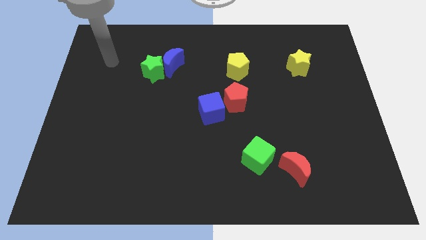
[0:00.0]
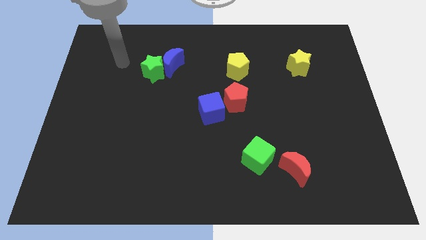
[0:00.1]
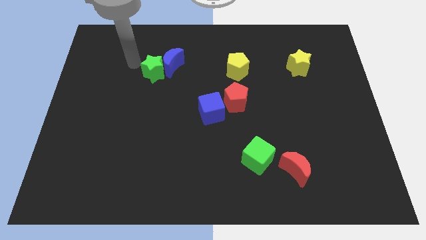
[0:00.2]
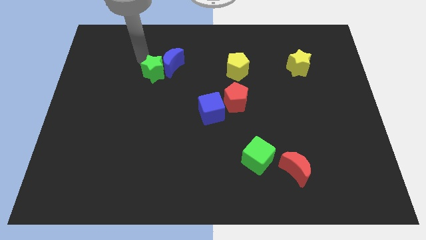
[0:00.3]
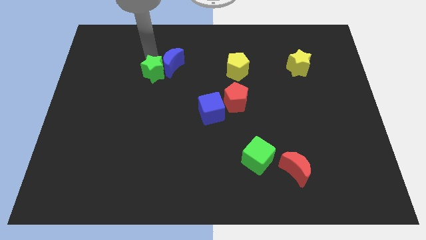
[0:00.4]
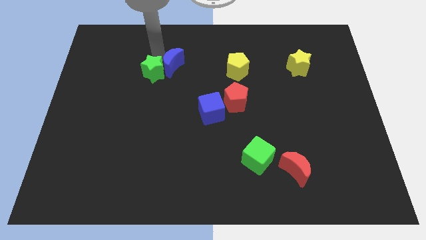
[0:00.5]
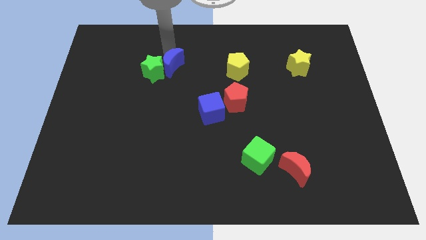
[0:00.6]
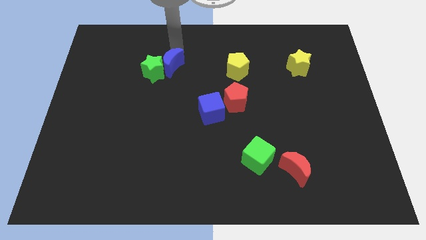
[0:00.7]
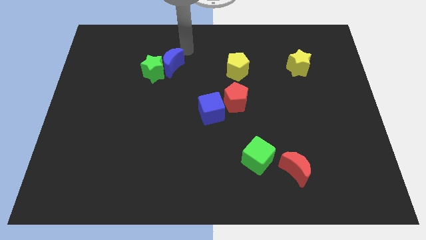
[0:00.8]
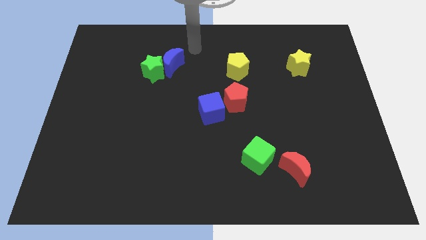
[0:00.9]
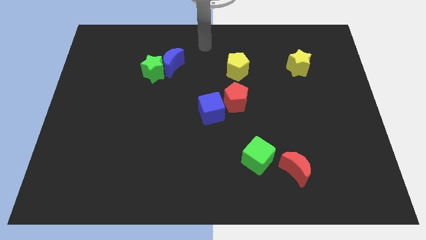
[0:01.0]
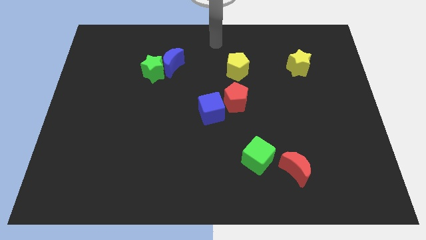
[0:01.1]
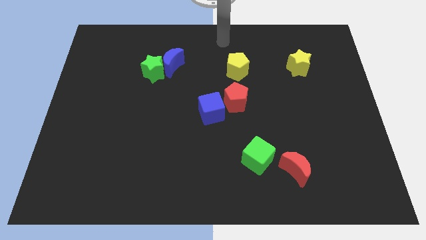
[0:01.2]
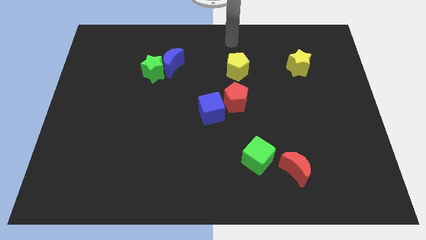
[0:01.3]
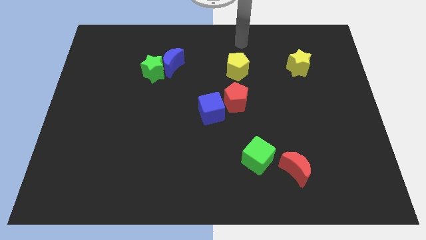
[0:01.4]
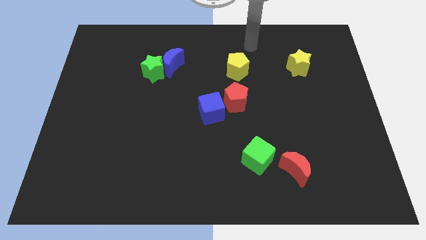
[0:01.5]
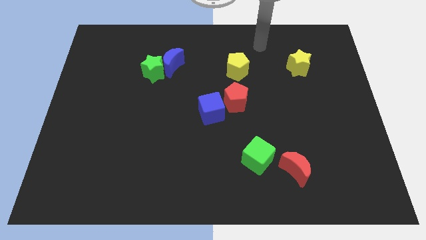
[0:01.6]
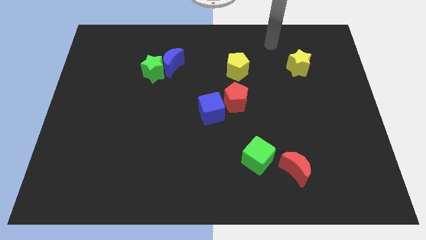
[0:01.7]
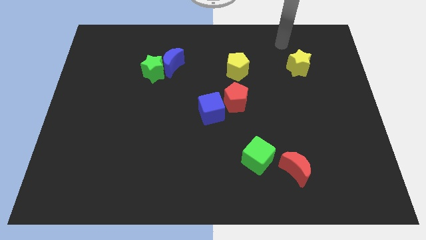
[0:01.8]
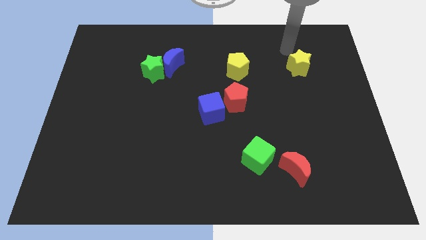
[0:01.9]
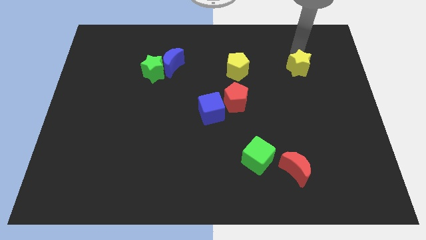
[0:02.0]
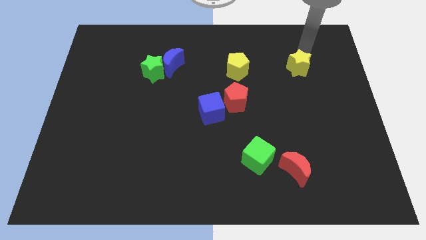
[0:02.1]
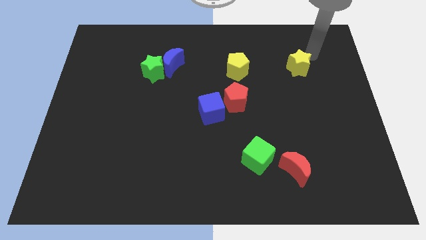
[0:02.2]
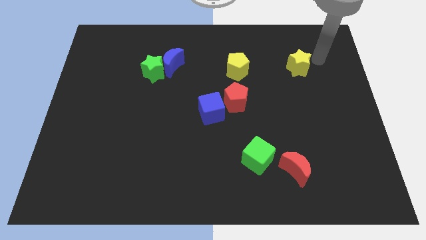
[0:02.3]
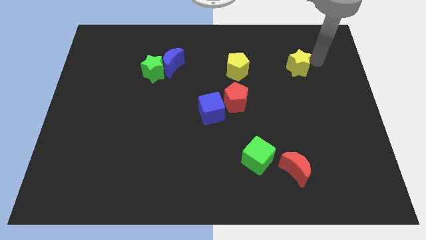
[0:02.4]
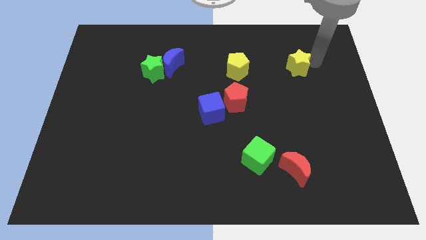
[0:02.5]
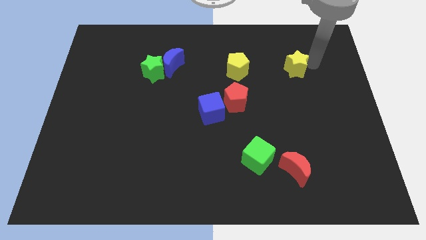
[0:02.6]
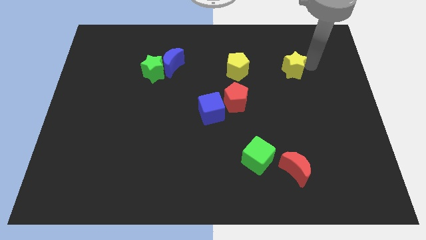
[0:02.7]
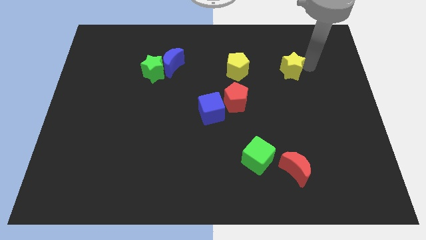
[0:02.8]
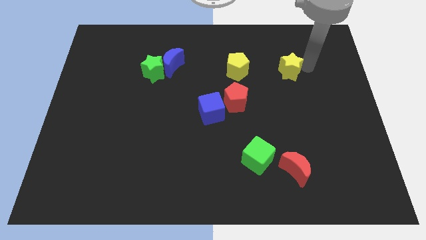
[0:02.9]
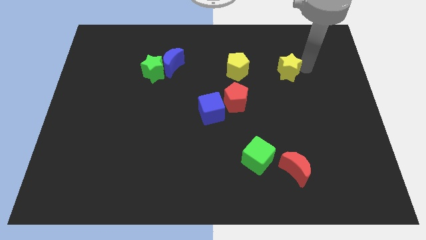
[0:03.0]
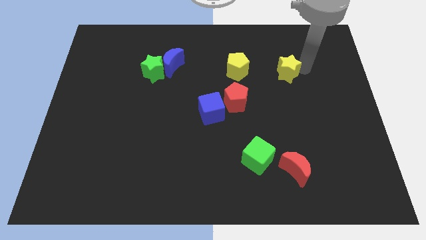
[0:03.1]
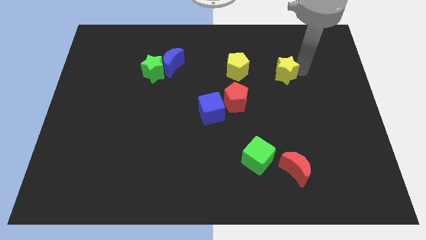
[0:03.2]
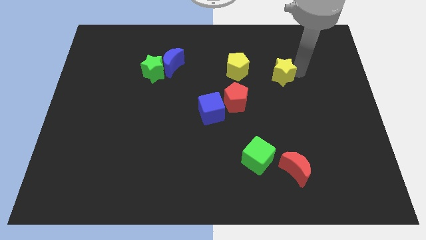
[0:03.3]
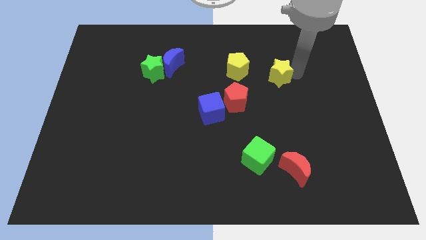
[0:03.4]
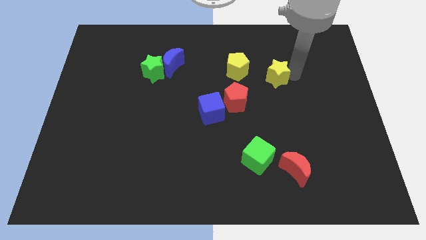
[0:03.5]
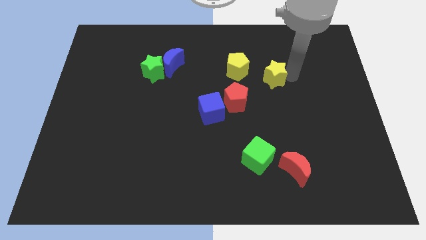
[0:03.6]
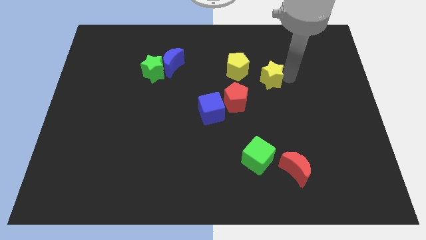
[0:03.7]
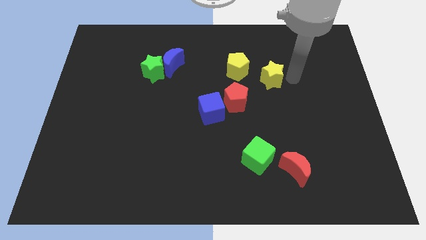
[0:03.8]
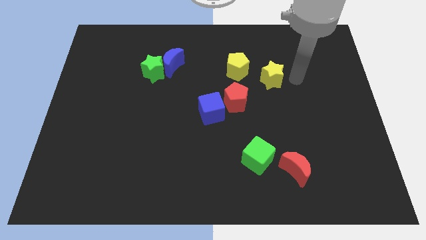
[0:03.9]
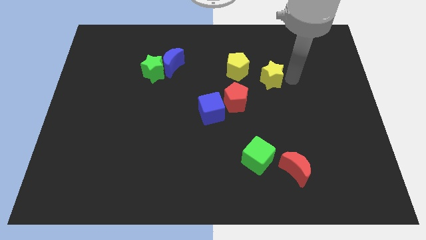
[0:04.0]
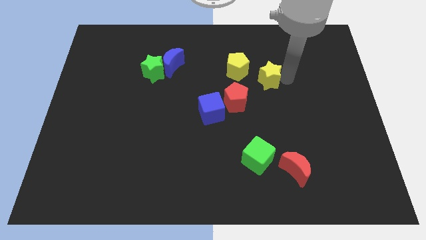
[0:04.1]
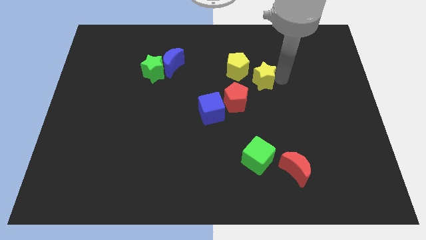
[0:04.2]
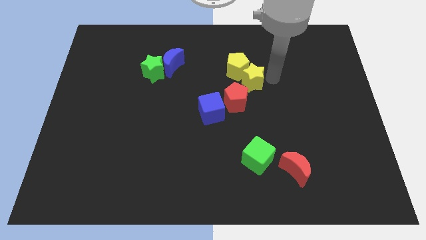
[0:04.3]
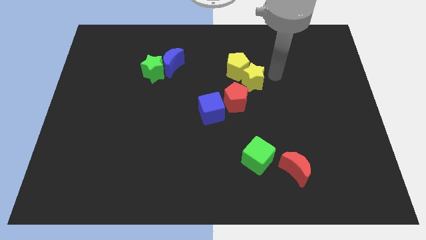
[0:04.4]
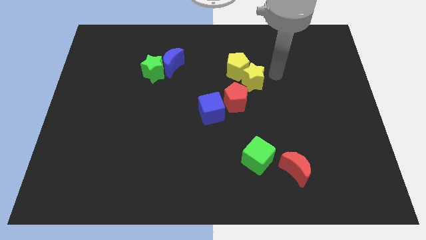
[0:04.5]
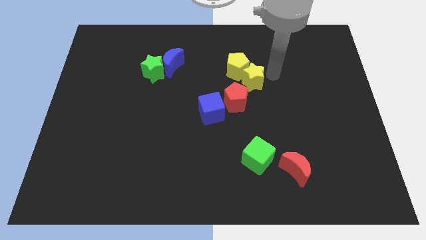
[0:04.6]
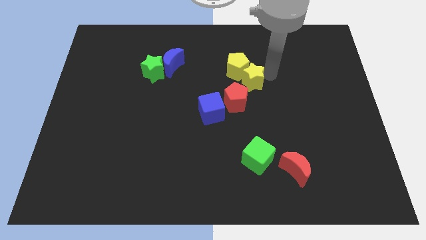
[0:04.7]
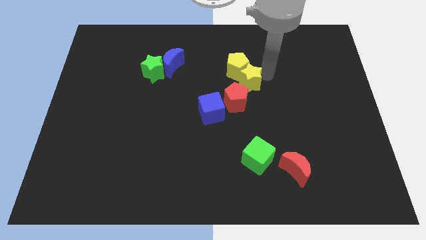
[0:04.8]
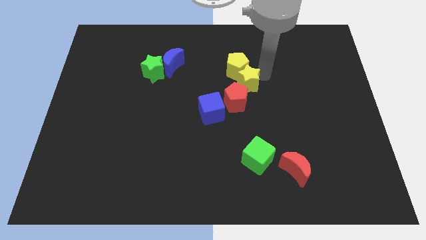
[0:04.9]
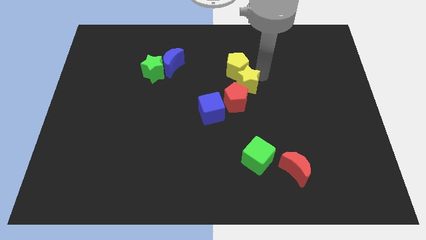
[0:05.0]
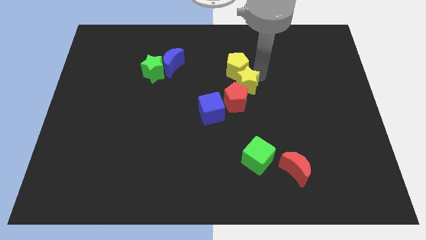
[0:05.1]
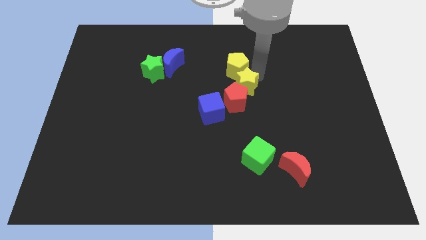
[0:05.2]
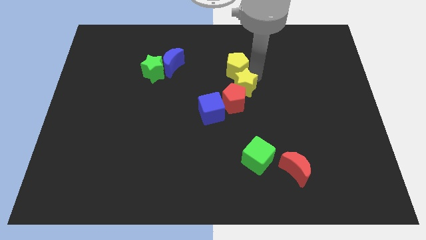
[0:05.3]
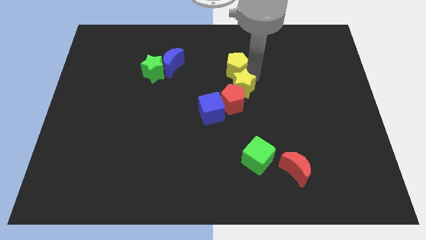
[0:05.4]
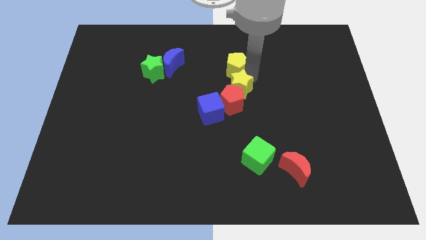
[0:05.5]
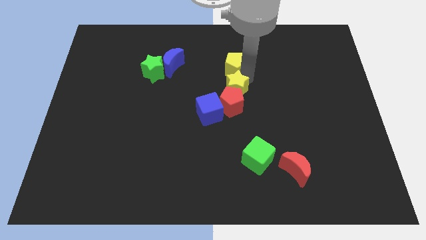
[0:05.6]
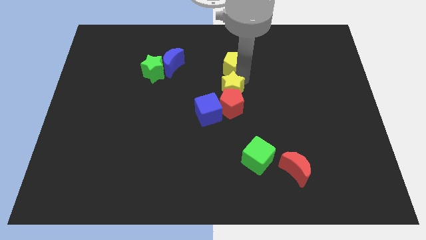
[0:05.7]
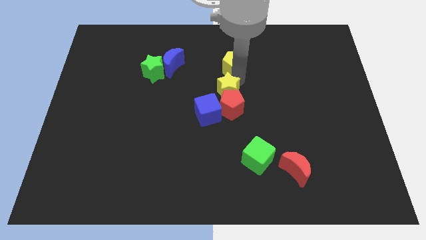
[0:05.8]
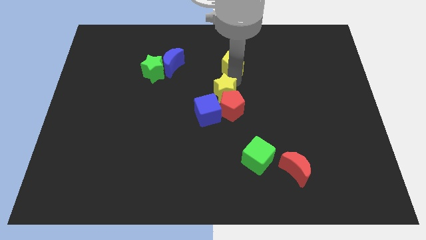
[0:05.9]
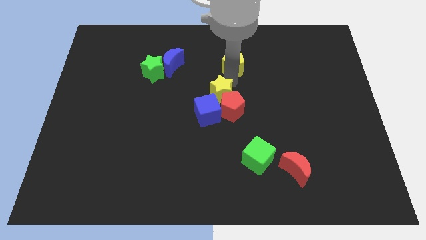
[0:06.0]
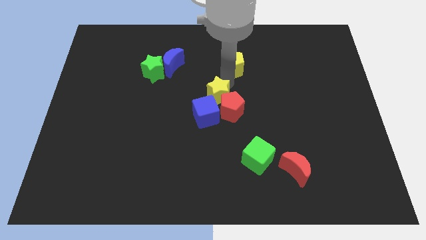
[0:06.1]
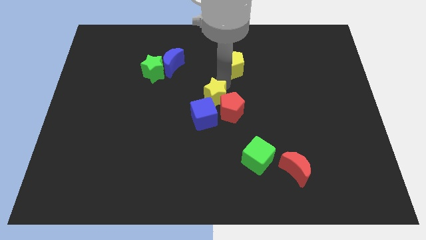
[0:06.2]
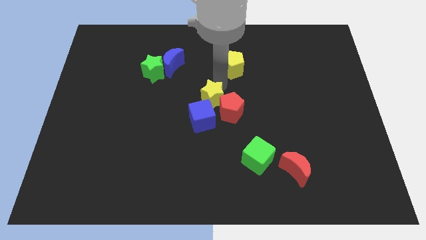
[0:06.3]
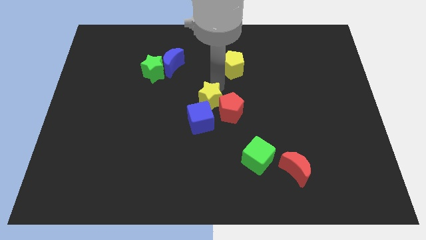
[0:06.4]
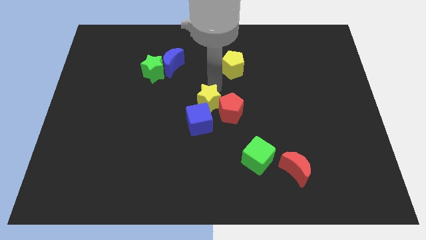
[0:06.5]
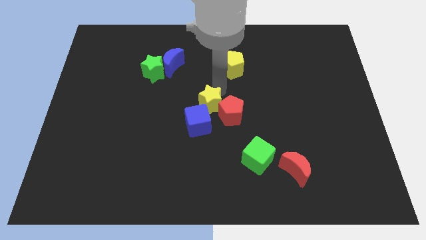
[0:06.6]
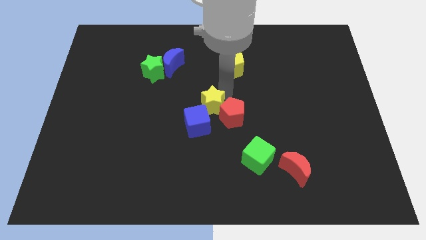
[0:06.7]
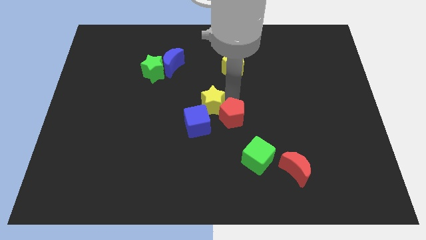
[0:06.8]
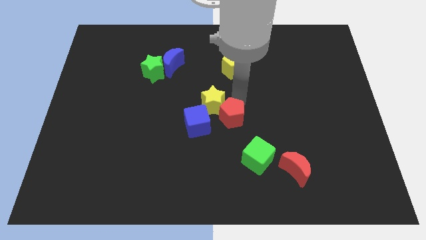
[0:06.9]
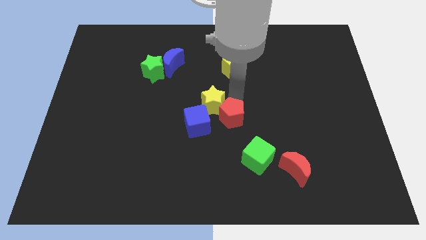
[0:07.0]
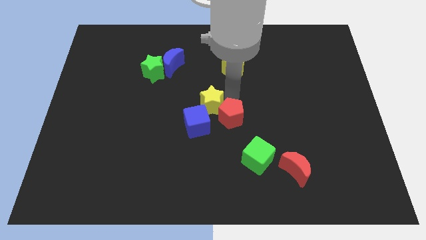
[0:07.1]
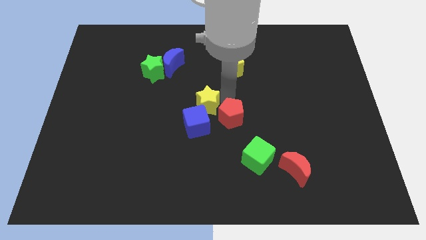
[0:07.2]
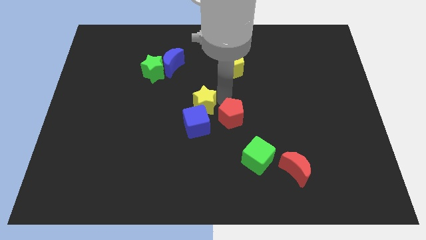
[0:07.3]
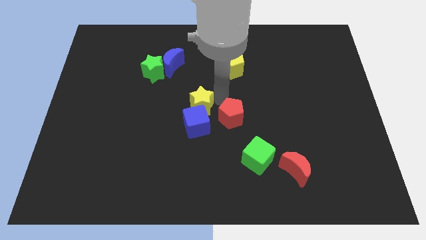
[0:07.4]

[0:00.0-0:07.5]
push the yellow star diagonally up and to the left of the blue cube
